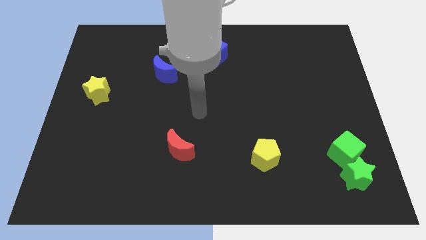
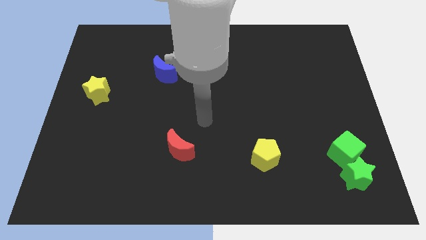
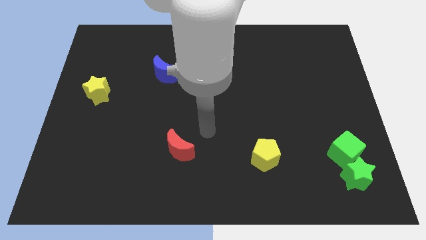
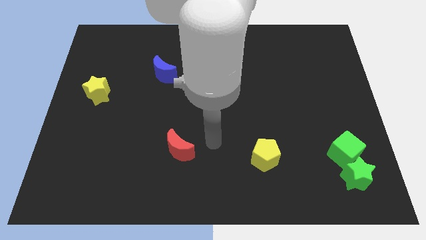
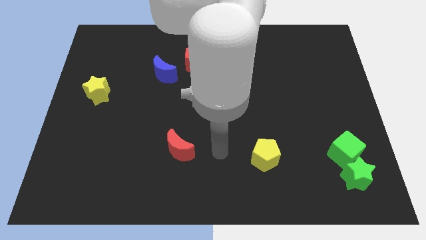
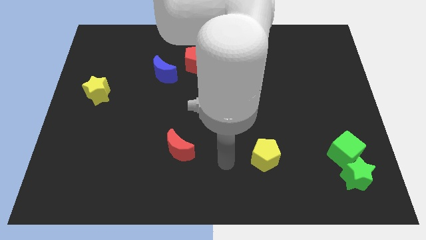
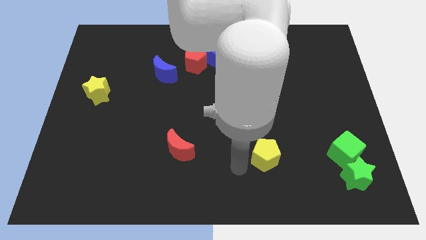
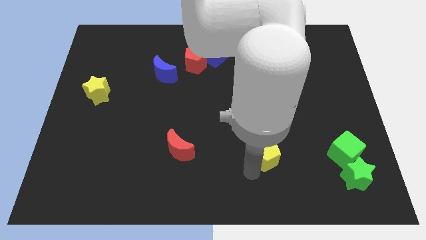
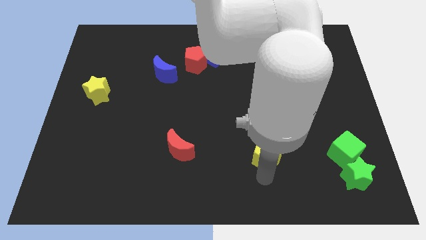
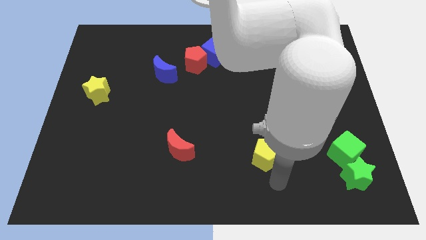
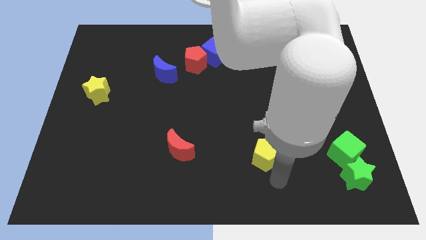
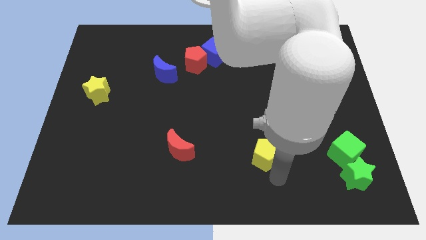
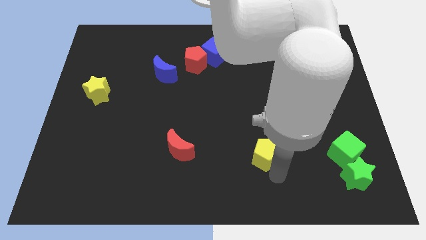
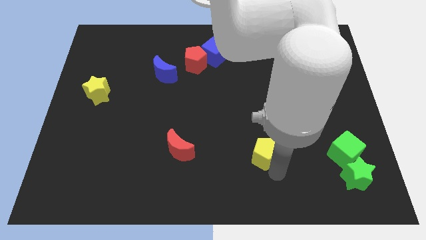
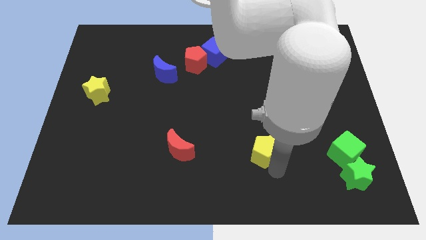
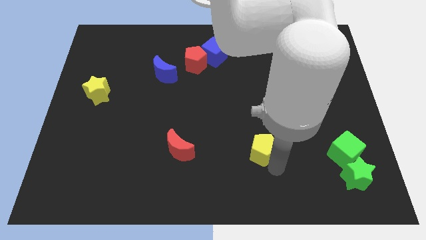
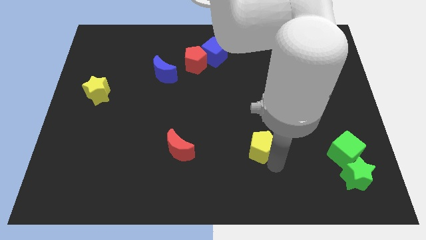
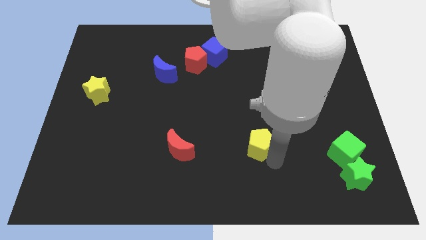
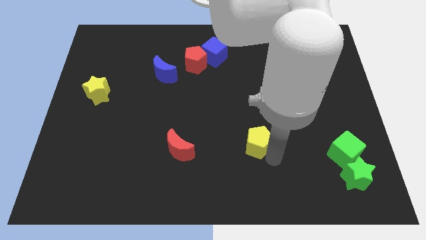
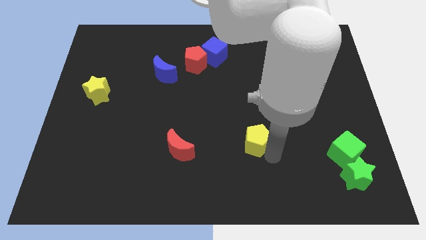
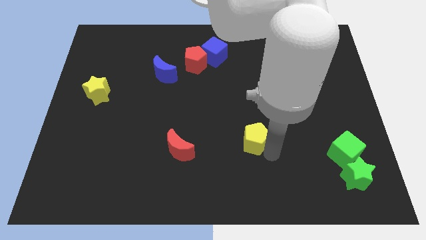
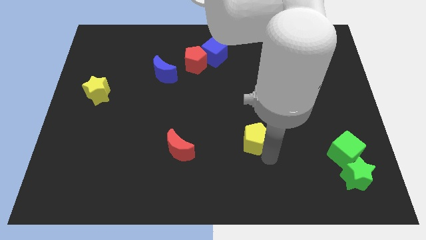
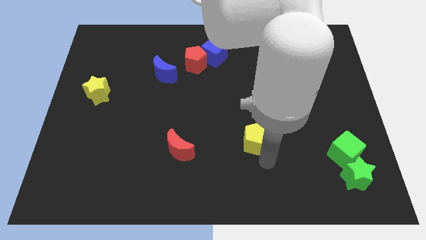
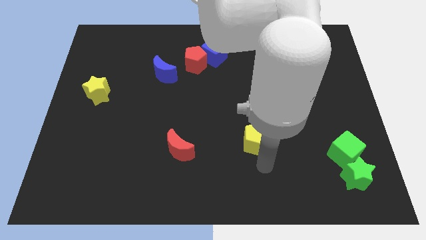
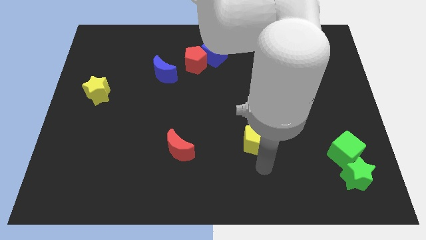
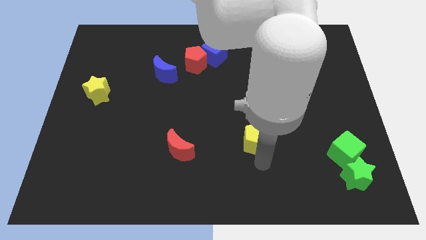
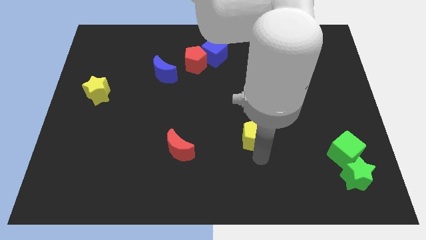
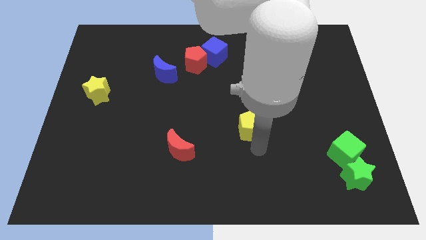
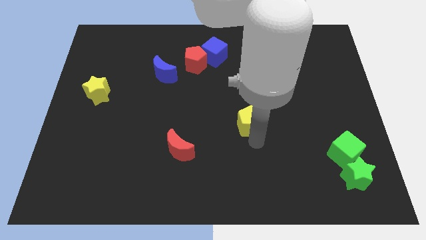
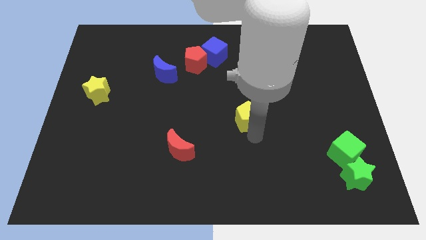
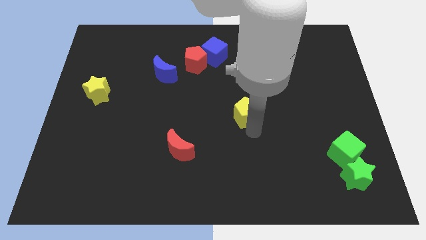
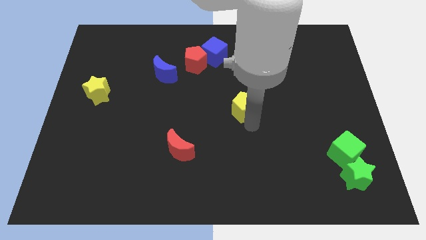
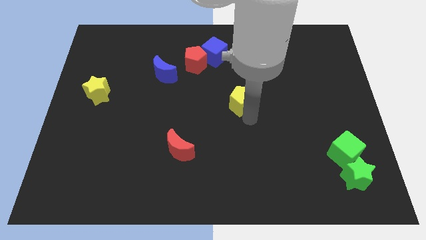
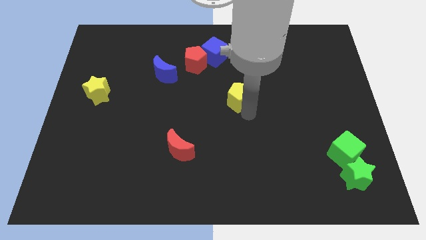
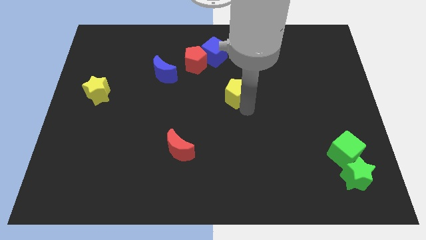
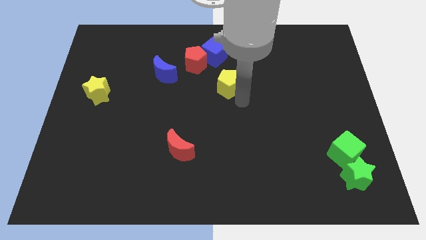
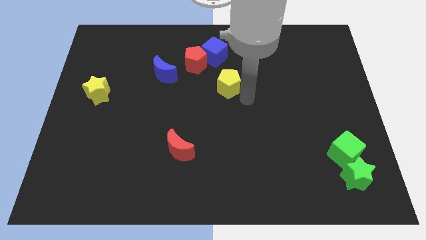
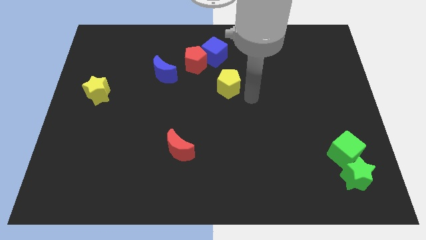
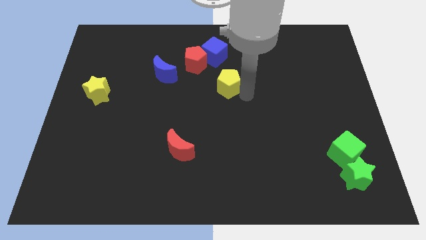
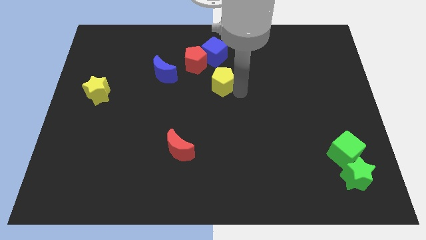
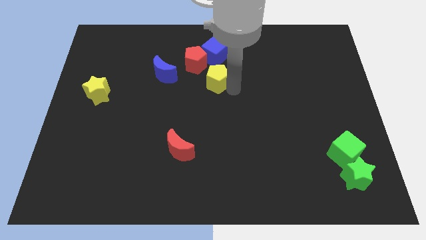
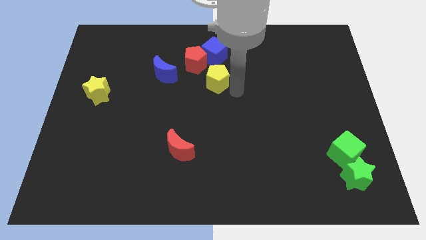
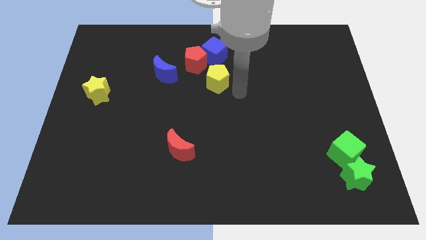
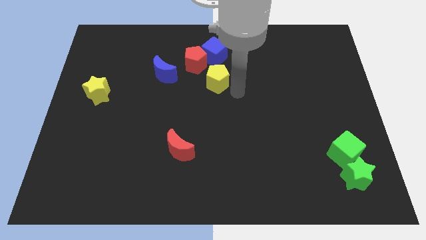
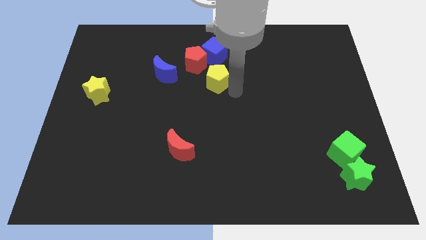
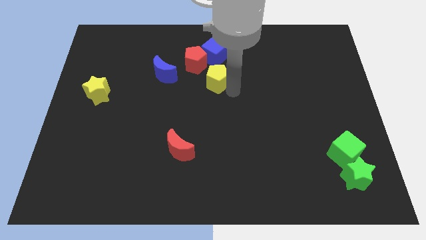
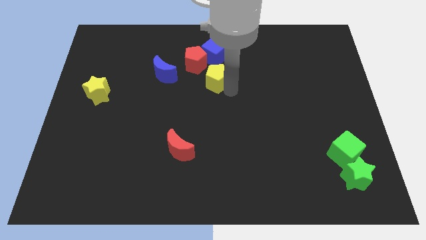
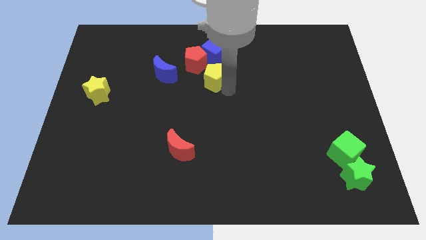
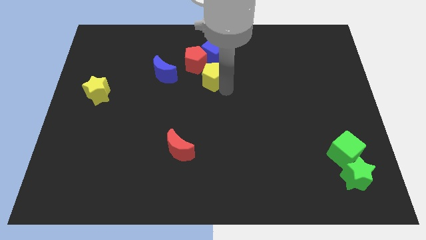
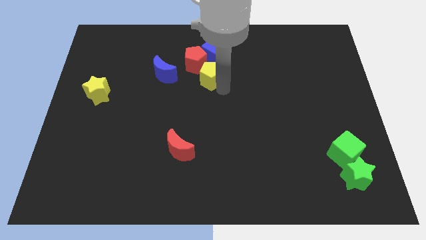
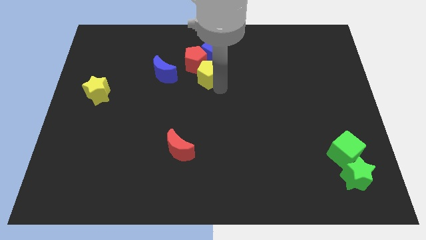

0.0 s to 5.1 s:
move the yellow pentagon to the red pentagon

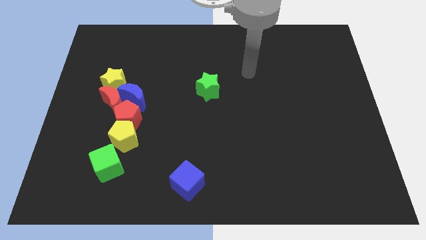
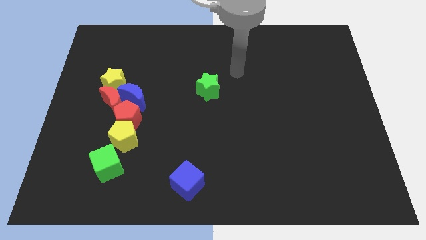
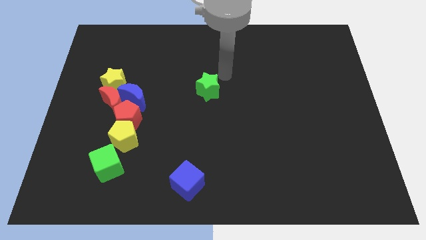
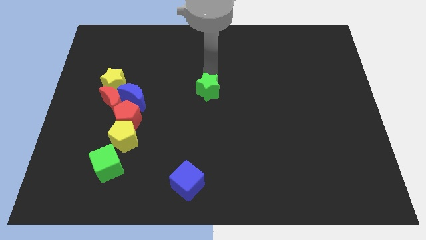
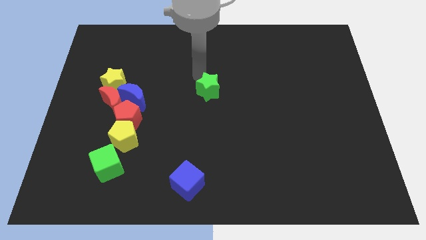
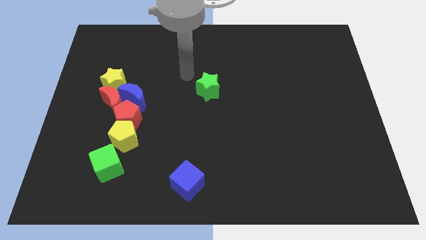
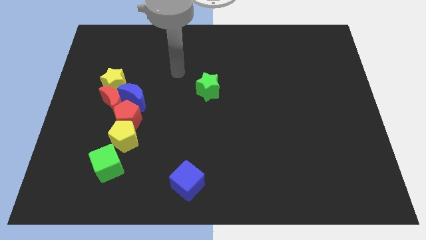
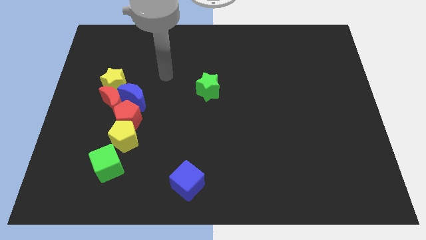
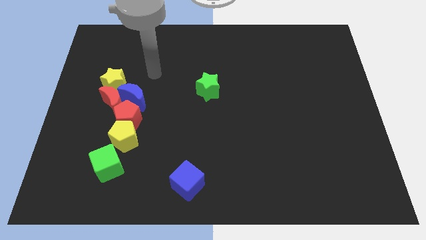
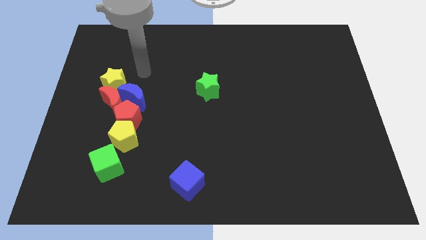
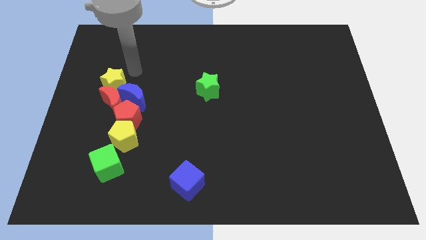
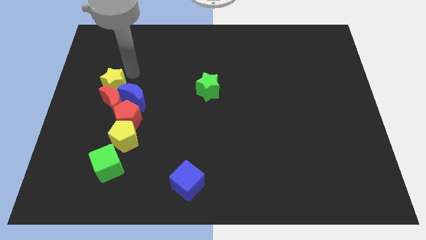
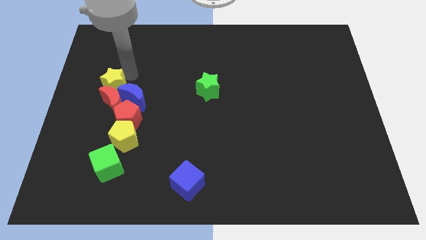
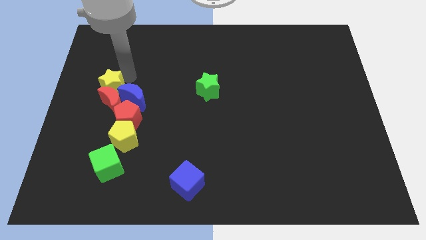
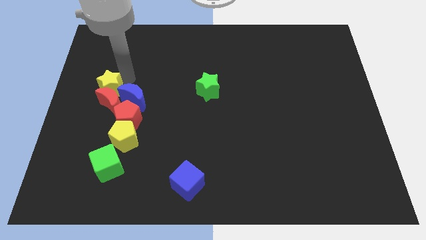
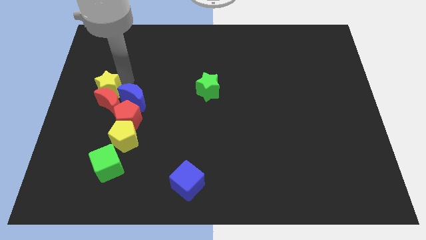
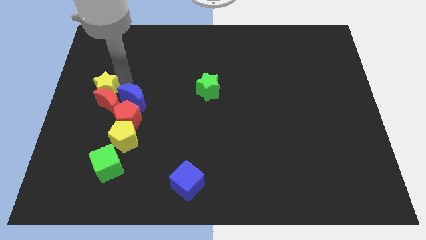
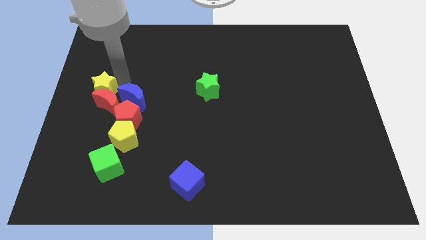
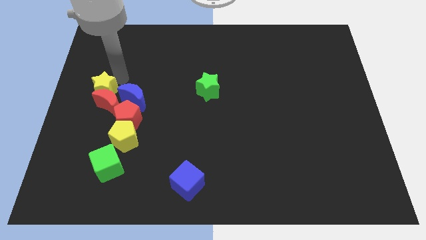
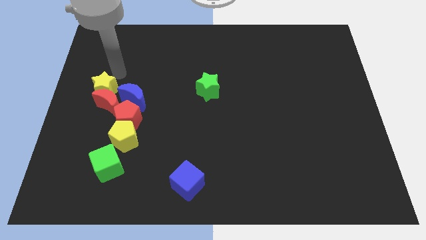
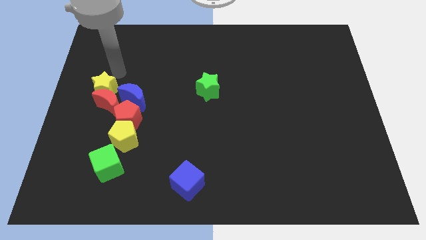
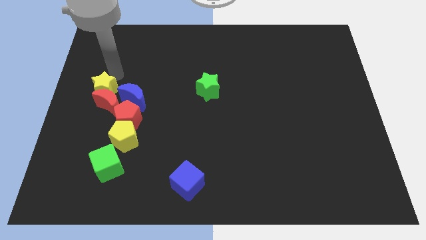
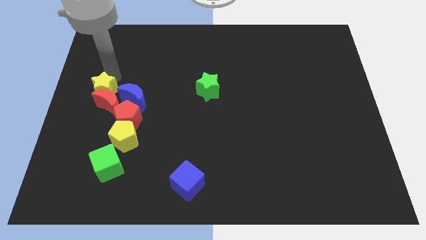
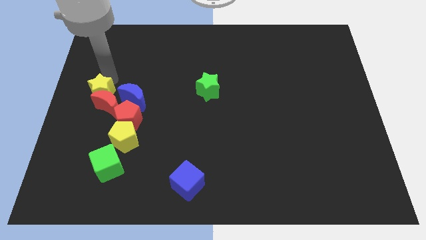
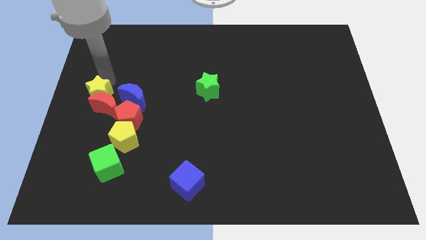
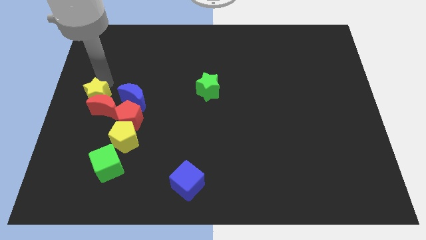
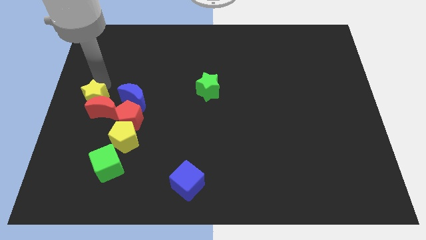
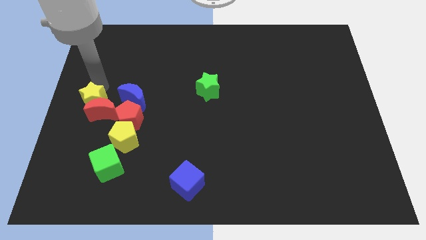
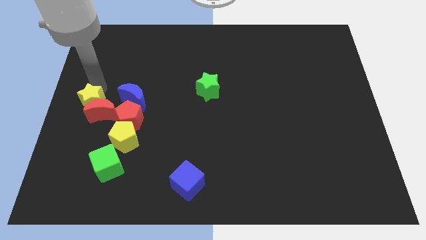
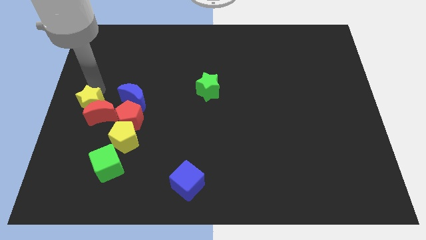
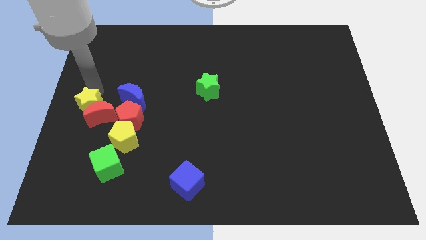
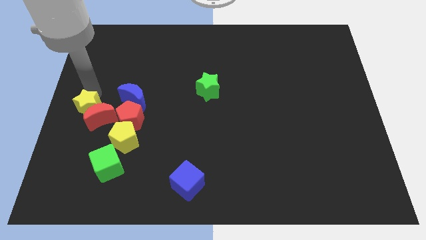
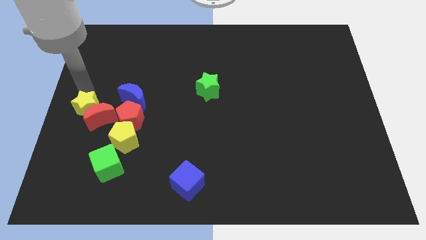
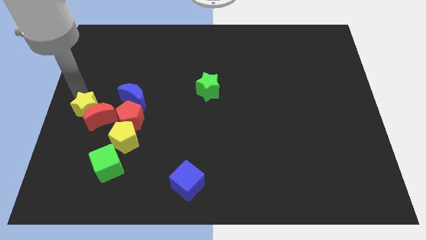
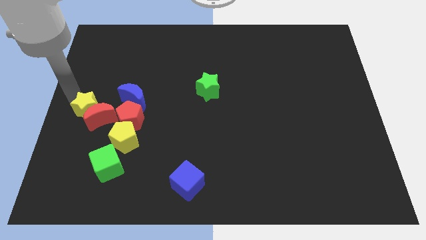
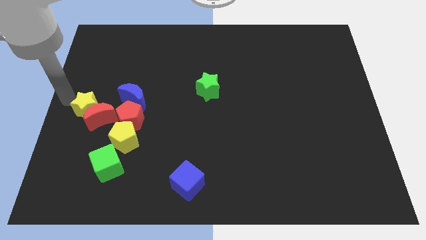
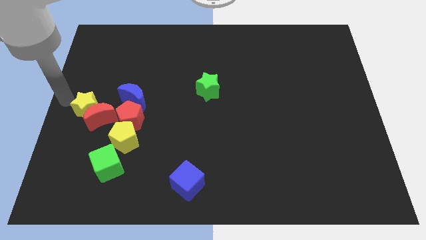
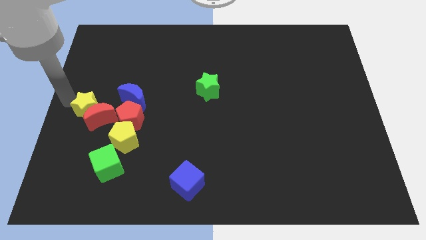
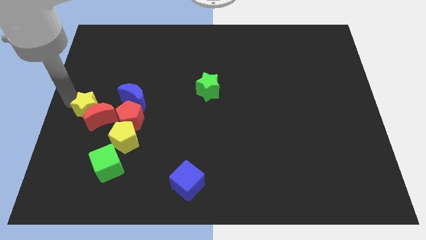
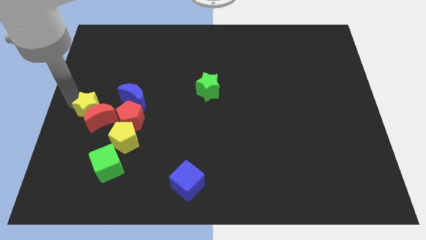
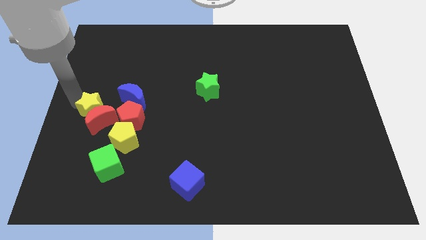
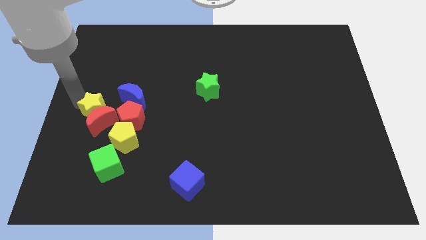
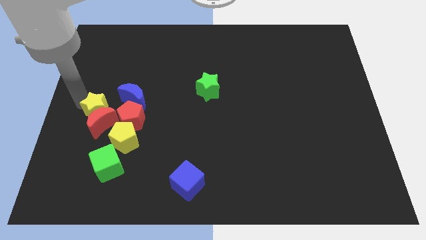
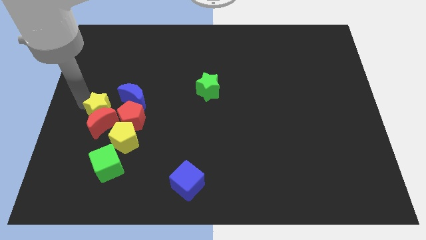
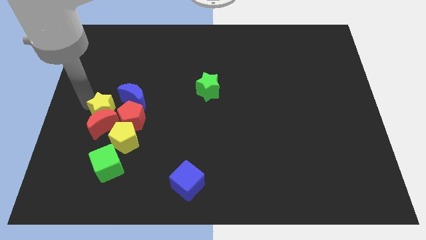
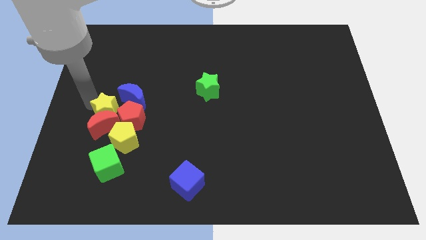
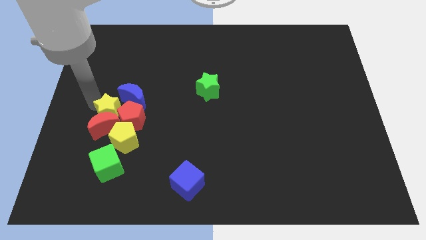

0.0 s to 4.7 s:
push the yellow star close to the red pentagon
